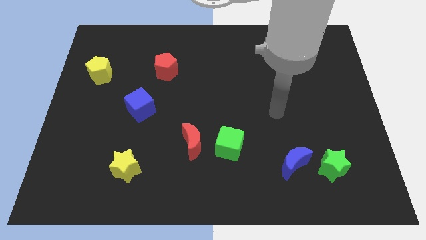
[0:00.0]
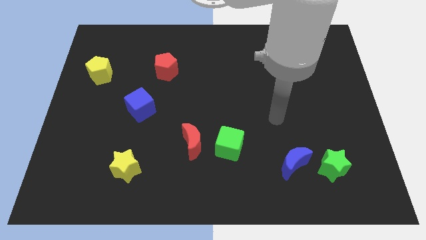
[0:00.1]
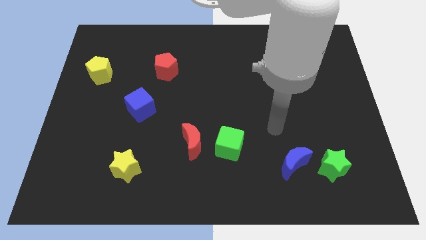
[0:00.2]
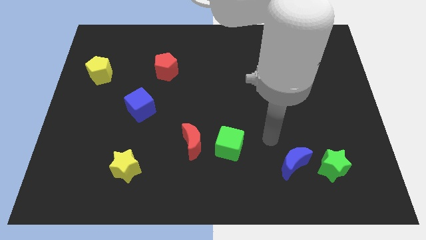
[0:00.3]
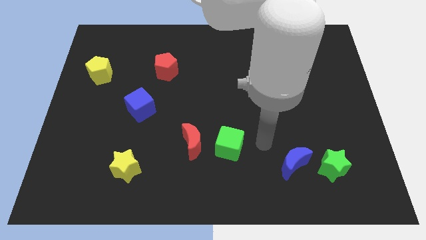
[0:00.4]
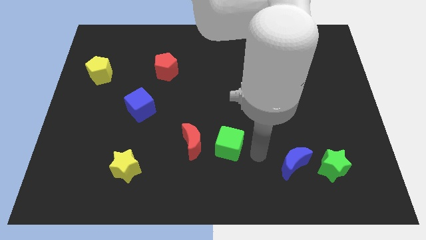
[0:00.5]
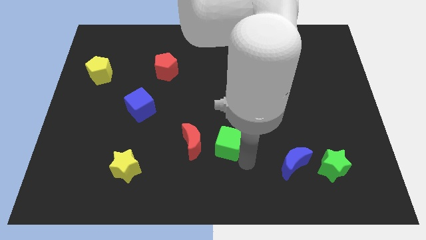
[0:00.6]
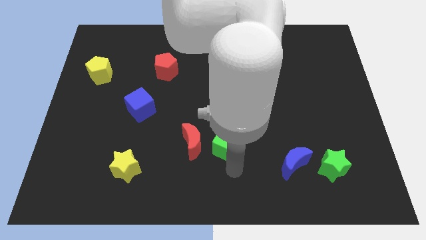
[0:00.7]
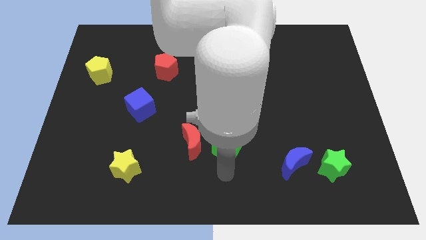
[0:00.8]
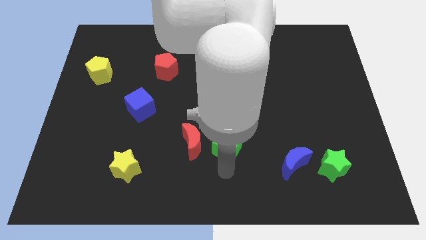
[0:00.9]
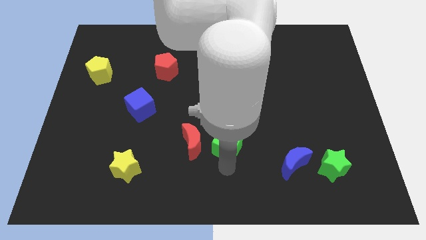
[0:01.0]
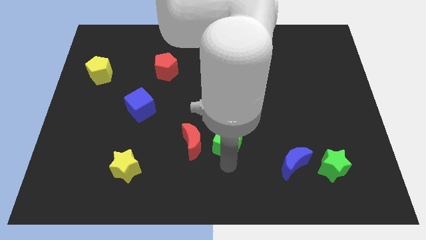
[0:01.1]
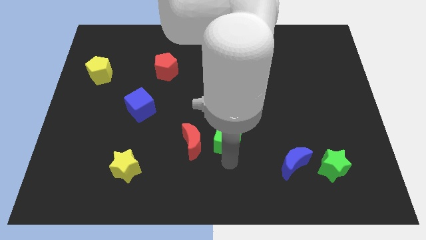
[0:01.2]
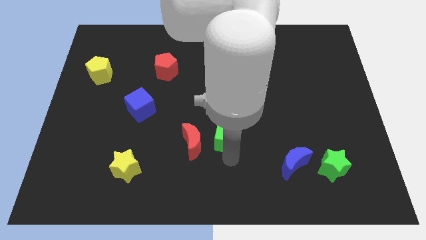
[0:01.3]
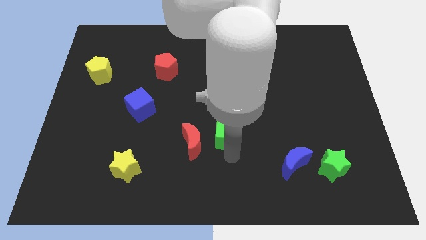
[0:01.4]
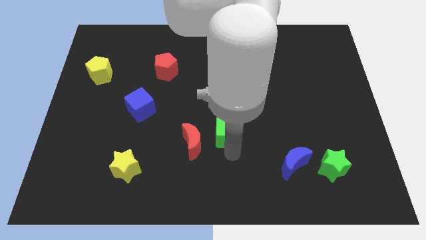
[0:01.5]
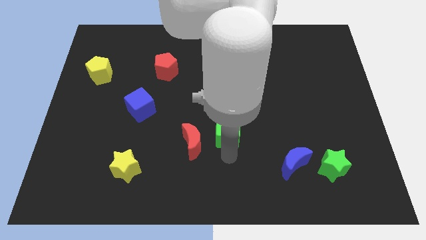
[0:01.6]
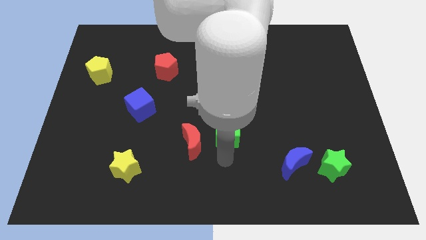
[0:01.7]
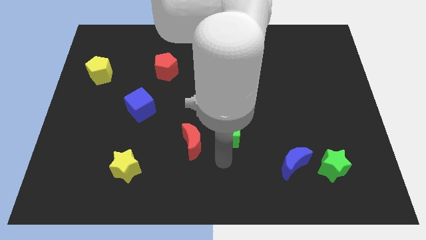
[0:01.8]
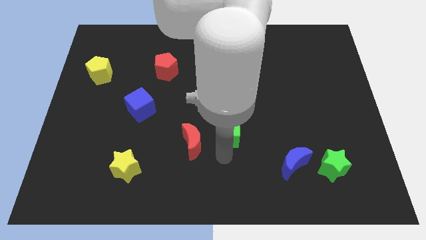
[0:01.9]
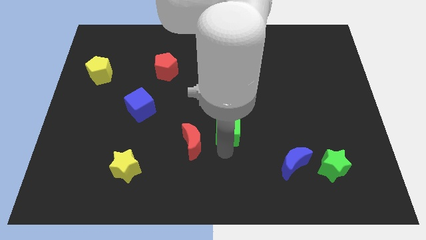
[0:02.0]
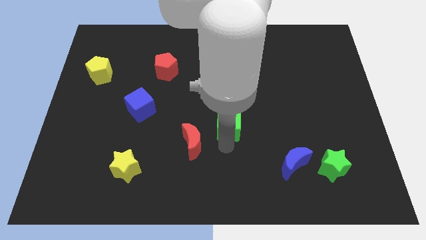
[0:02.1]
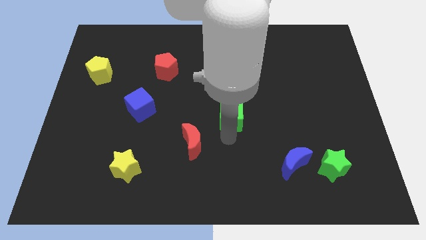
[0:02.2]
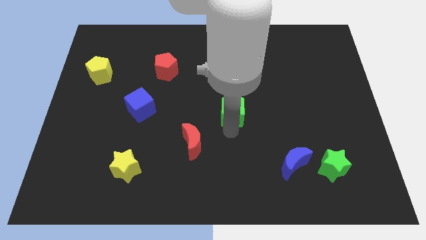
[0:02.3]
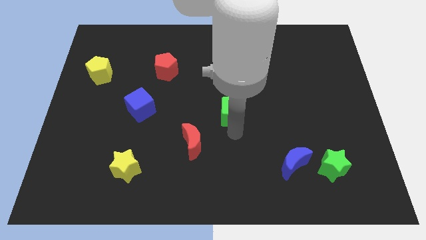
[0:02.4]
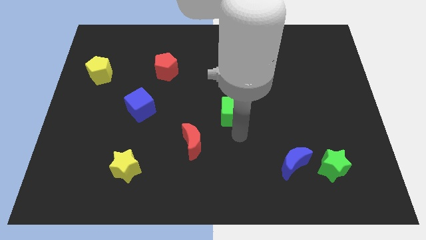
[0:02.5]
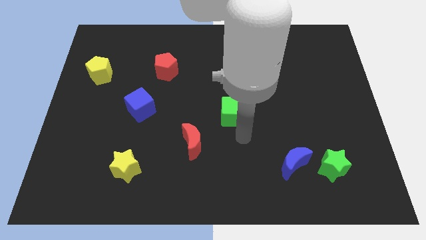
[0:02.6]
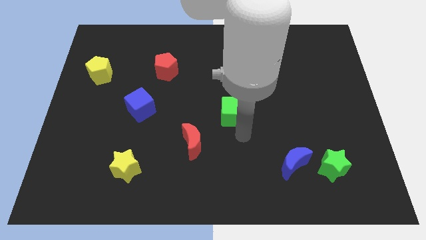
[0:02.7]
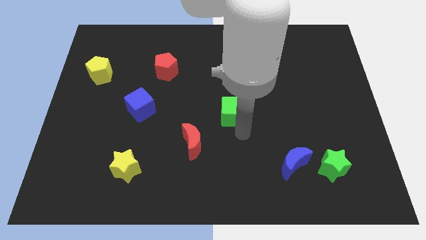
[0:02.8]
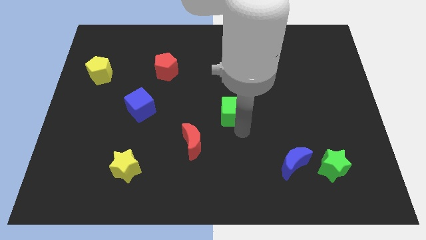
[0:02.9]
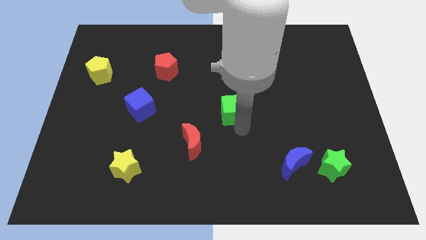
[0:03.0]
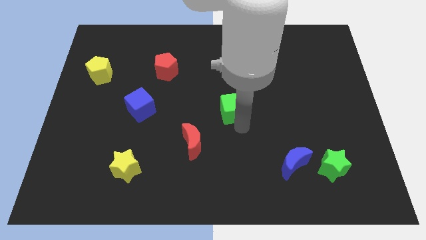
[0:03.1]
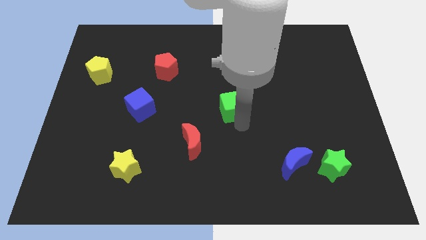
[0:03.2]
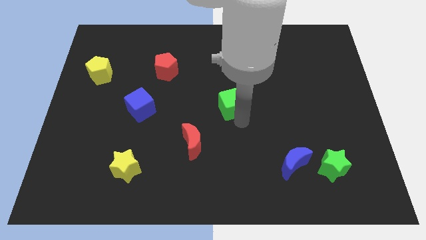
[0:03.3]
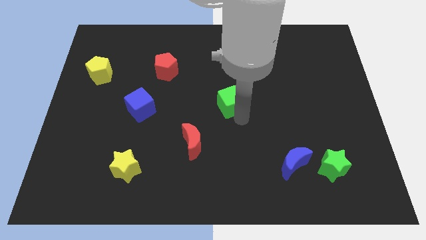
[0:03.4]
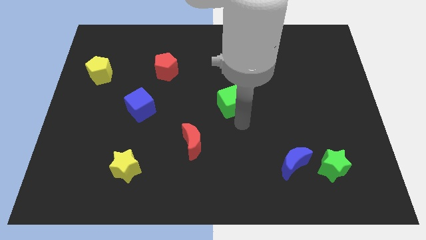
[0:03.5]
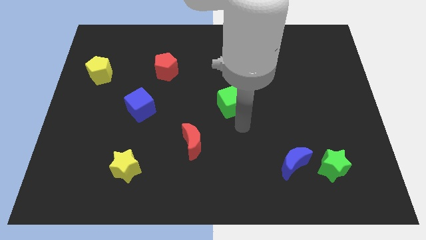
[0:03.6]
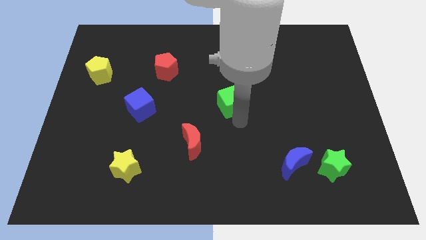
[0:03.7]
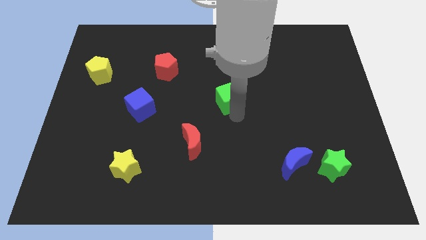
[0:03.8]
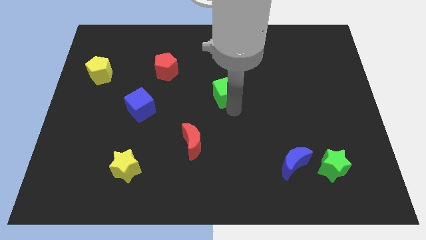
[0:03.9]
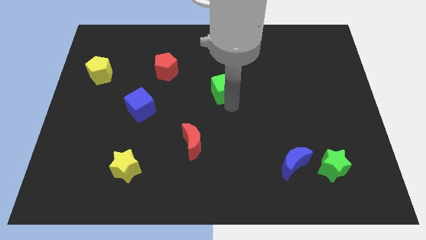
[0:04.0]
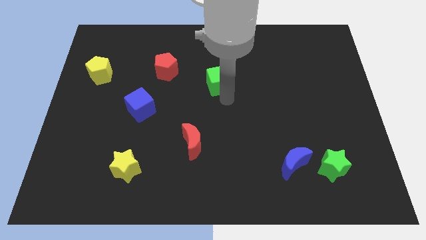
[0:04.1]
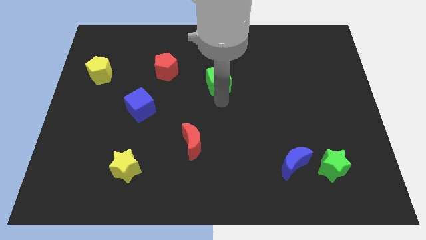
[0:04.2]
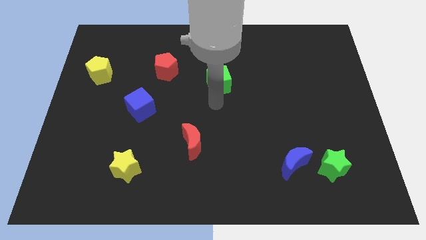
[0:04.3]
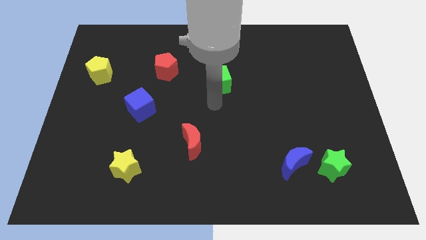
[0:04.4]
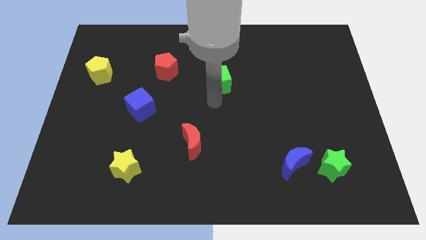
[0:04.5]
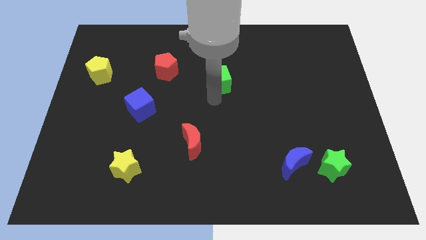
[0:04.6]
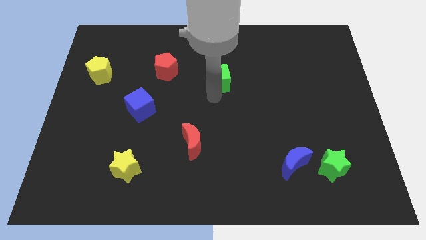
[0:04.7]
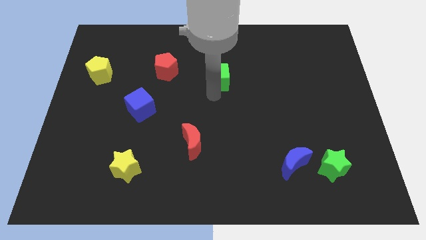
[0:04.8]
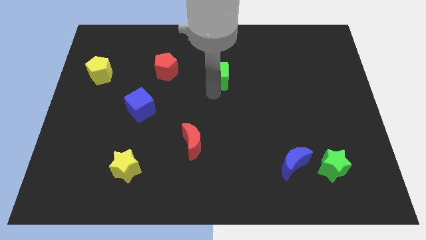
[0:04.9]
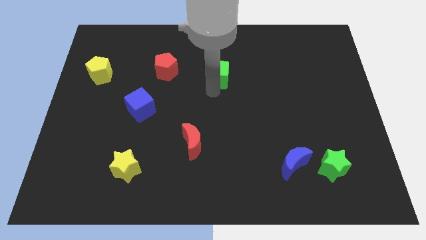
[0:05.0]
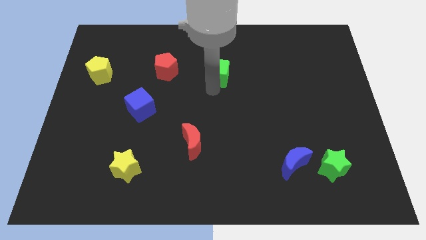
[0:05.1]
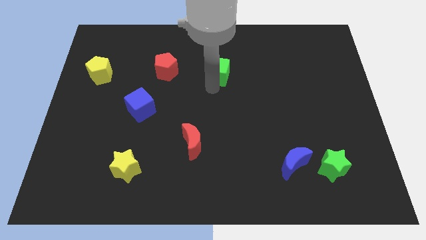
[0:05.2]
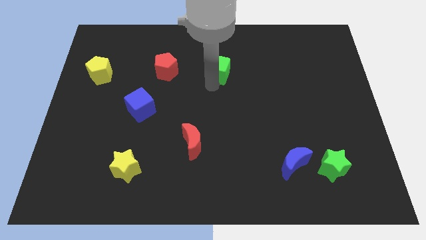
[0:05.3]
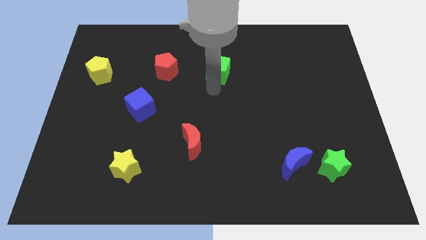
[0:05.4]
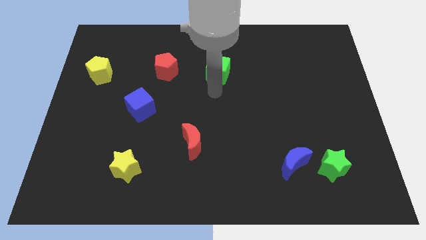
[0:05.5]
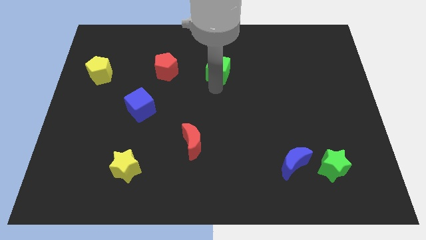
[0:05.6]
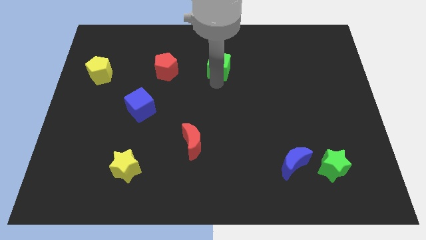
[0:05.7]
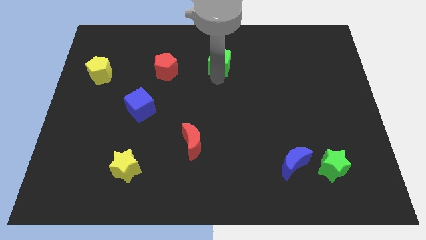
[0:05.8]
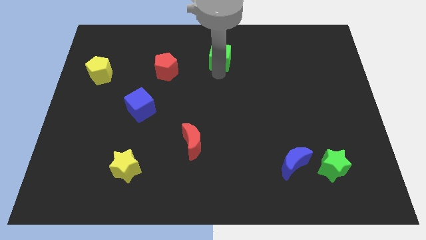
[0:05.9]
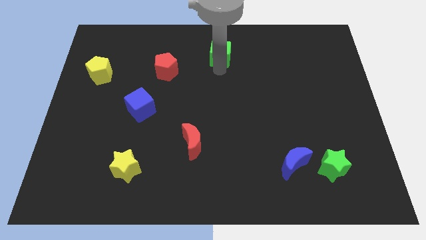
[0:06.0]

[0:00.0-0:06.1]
slide the green cube to the top side

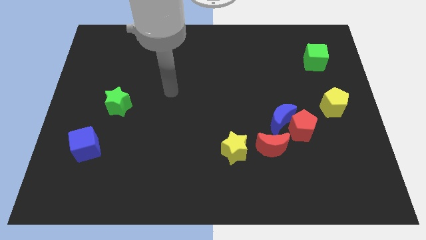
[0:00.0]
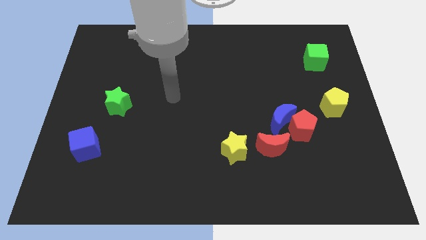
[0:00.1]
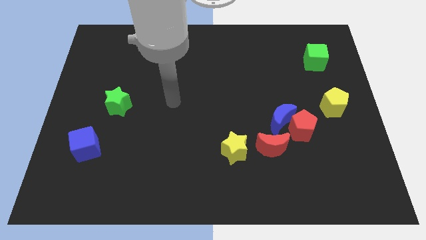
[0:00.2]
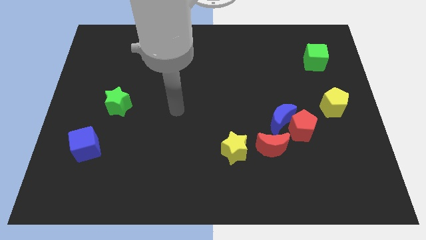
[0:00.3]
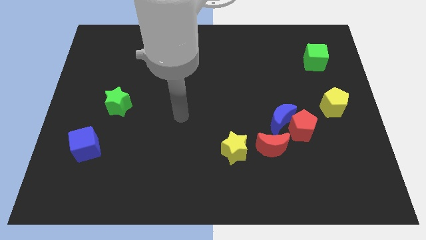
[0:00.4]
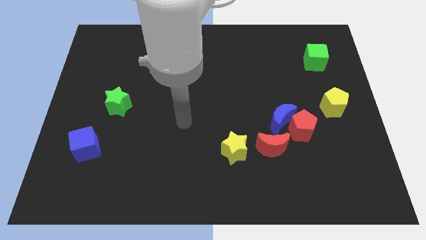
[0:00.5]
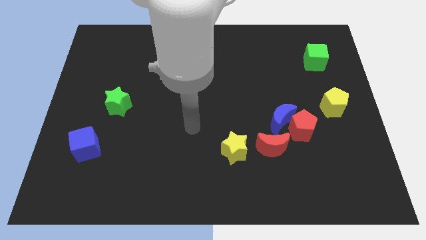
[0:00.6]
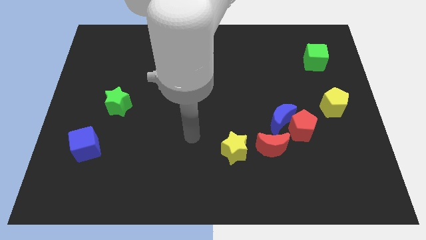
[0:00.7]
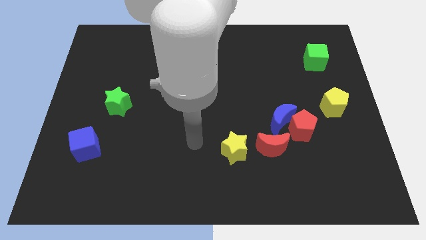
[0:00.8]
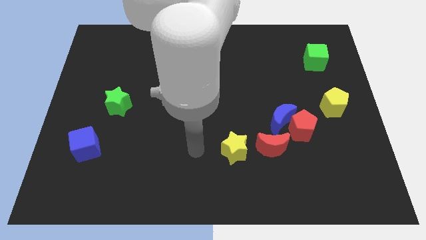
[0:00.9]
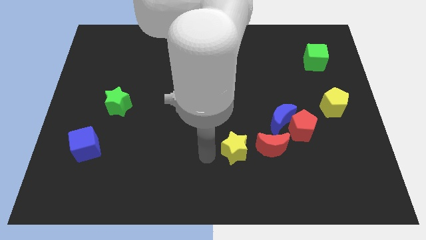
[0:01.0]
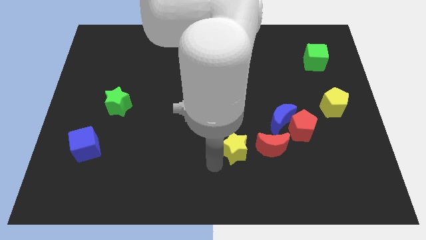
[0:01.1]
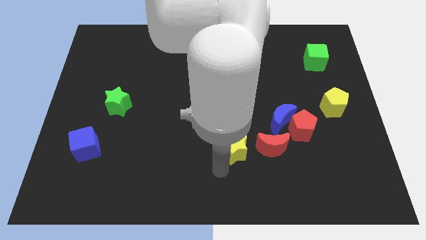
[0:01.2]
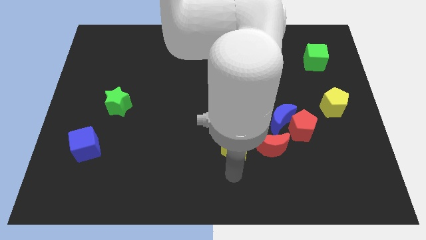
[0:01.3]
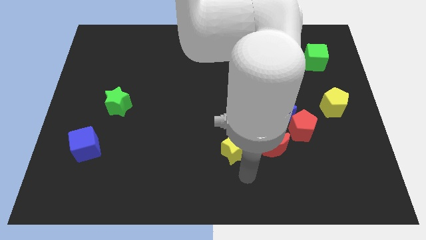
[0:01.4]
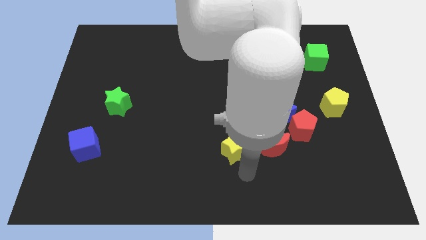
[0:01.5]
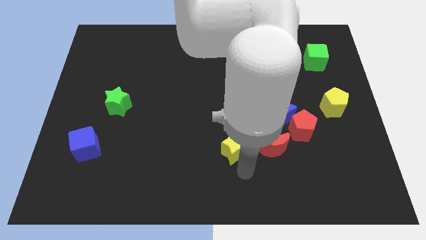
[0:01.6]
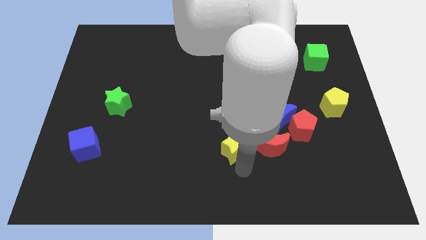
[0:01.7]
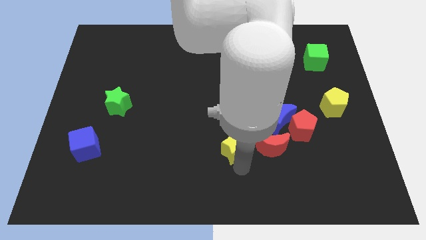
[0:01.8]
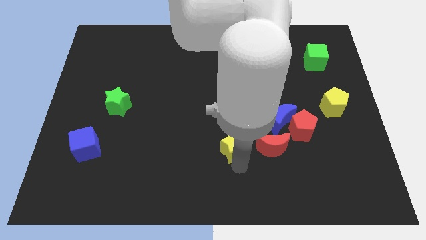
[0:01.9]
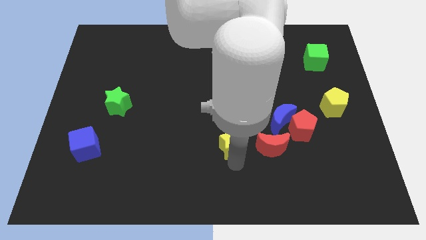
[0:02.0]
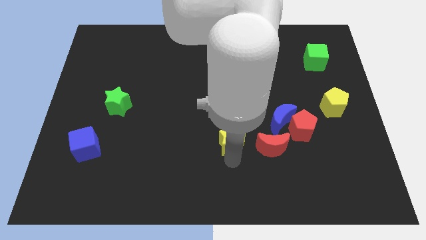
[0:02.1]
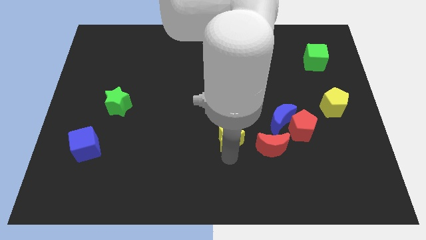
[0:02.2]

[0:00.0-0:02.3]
put the yellow star to the middle
